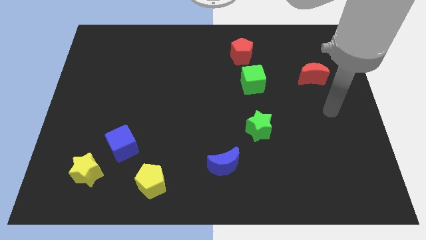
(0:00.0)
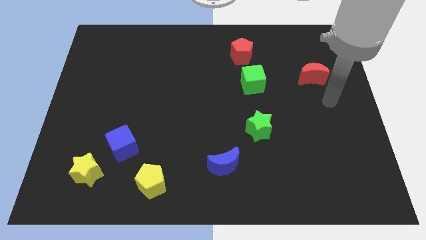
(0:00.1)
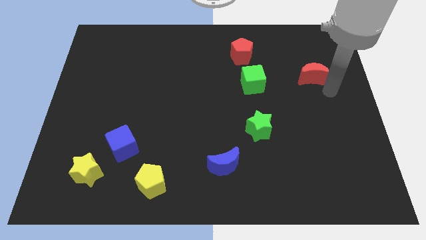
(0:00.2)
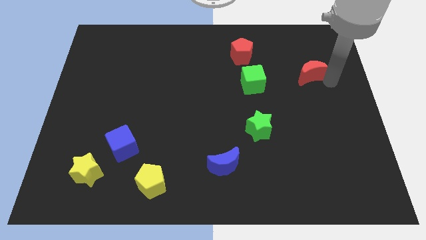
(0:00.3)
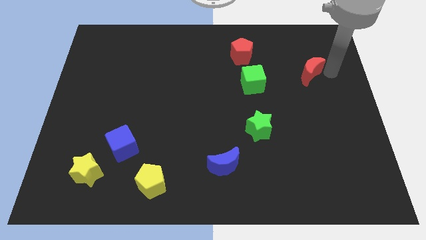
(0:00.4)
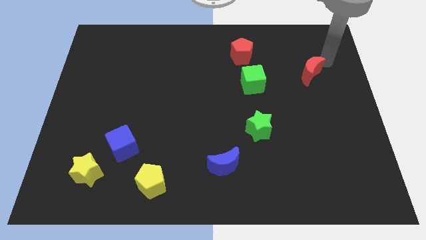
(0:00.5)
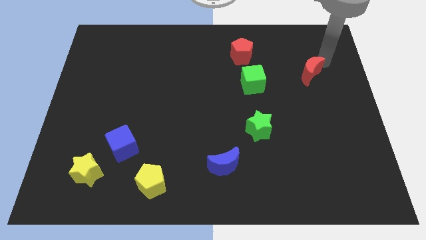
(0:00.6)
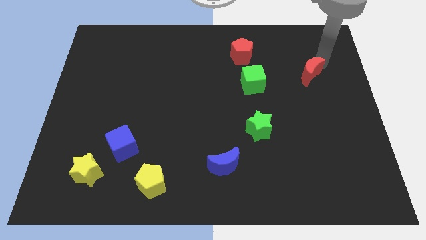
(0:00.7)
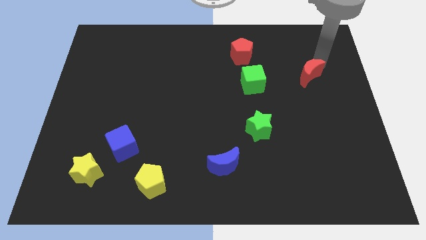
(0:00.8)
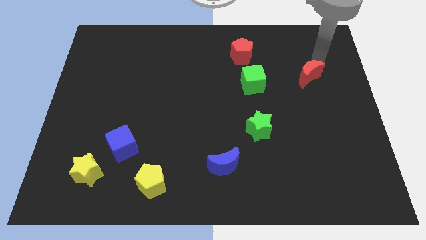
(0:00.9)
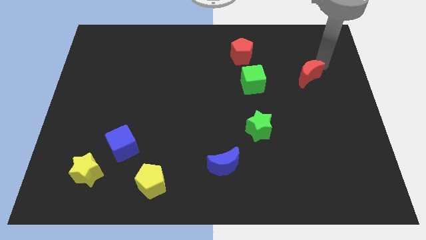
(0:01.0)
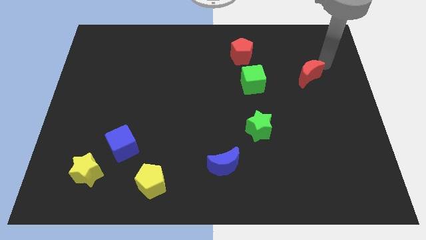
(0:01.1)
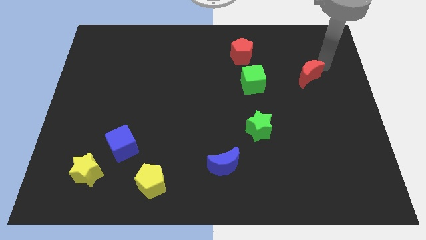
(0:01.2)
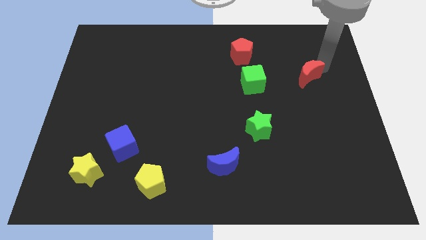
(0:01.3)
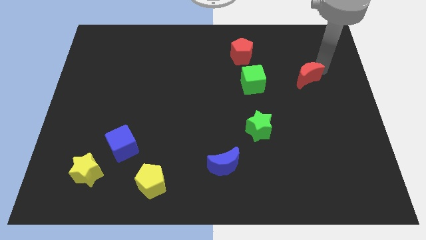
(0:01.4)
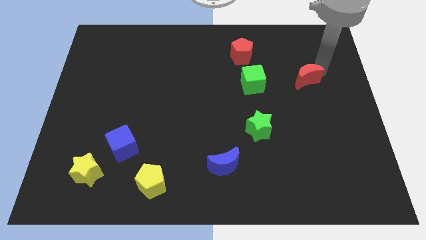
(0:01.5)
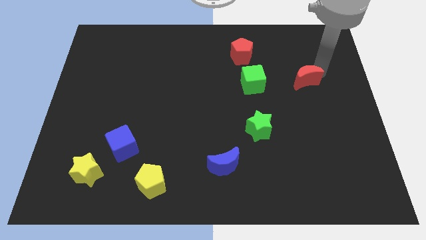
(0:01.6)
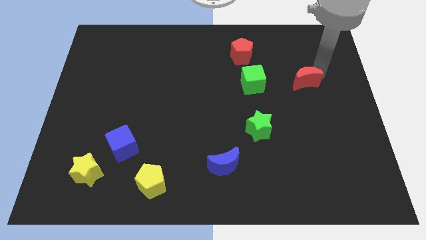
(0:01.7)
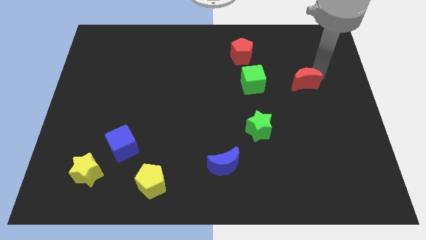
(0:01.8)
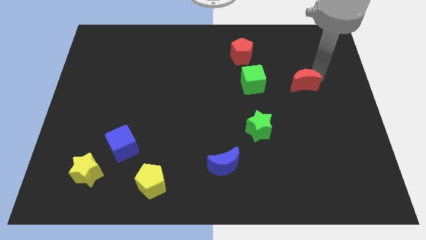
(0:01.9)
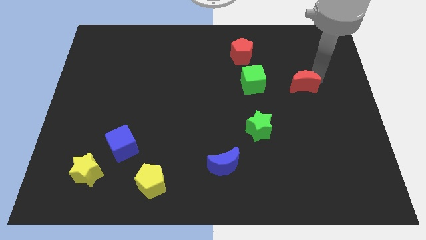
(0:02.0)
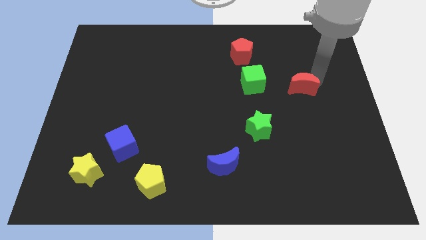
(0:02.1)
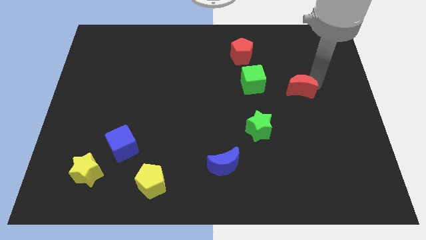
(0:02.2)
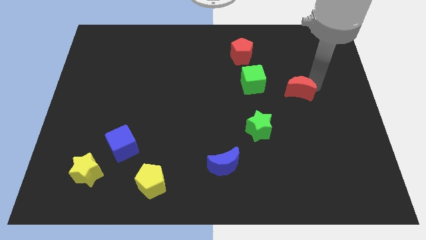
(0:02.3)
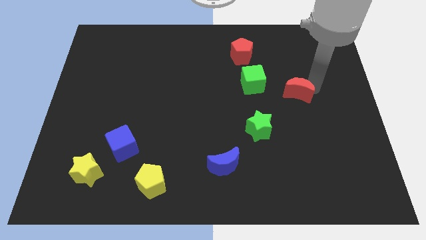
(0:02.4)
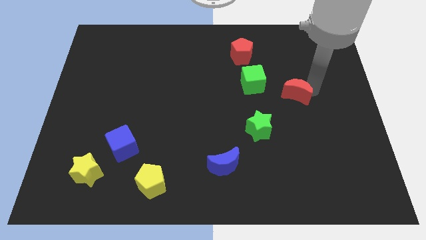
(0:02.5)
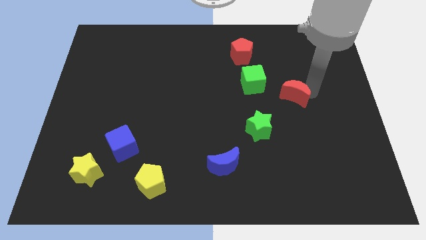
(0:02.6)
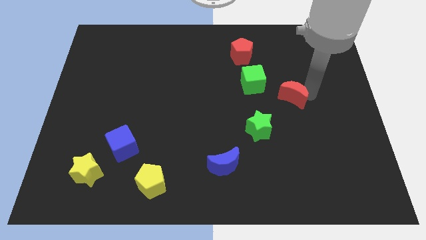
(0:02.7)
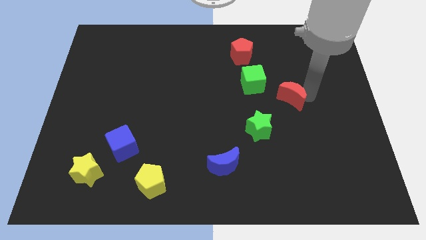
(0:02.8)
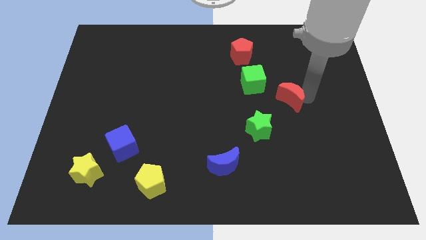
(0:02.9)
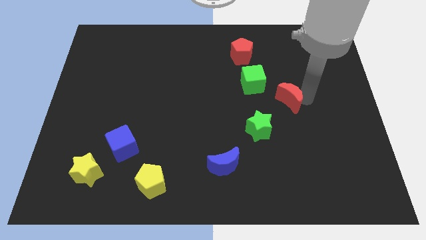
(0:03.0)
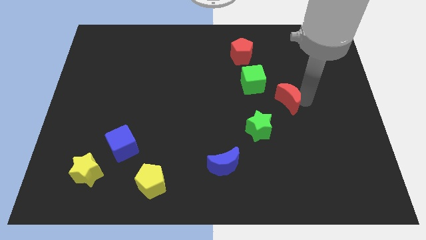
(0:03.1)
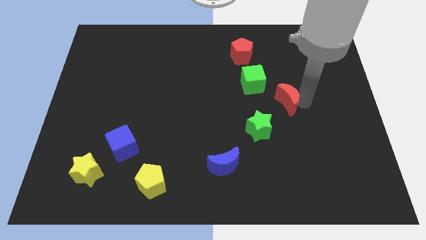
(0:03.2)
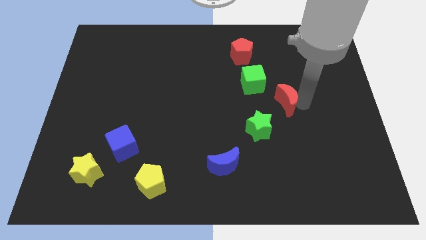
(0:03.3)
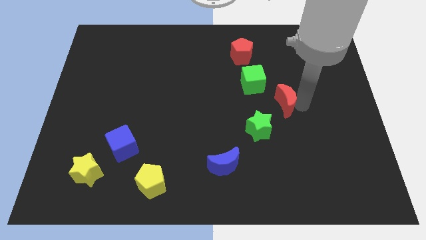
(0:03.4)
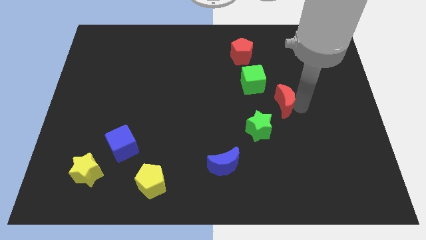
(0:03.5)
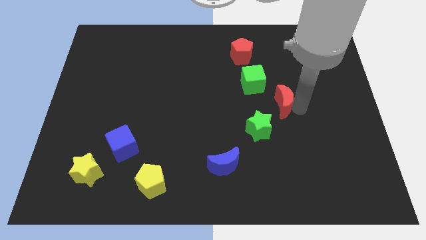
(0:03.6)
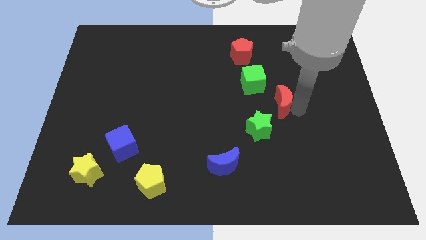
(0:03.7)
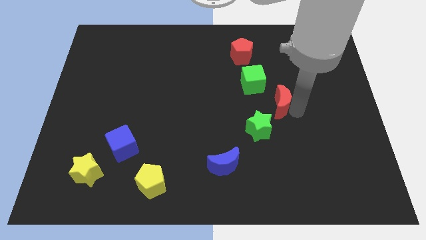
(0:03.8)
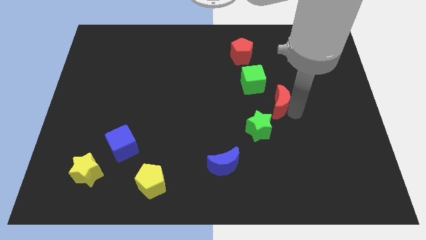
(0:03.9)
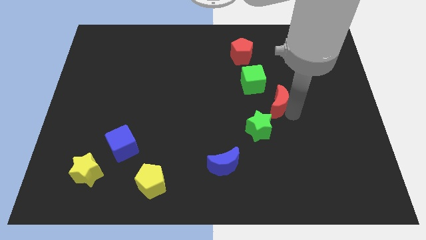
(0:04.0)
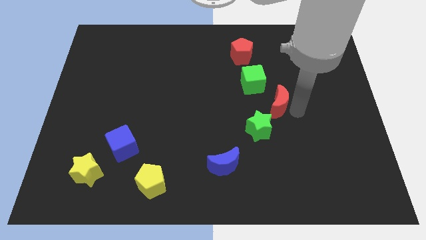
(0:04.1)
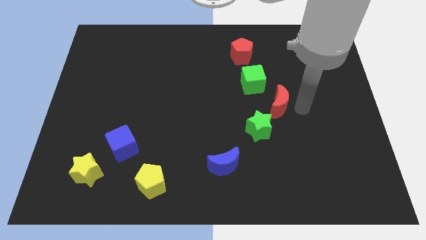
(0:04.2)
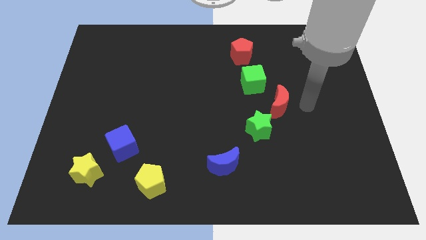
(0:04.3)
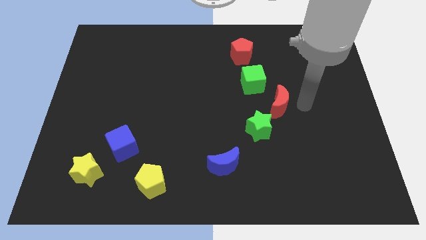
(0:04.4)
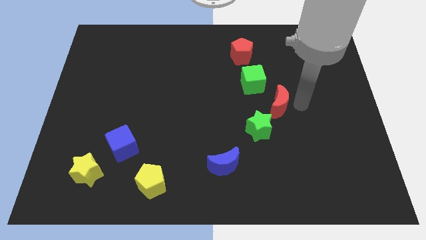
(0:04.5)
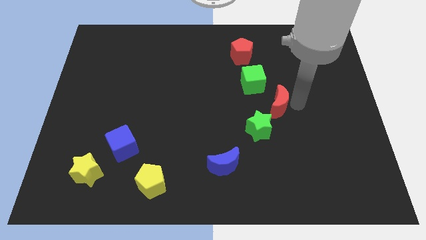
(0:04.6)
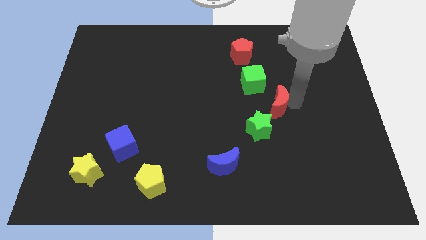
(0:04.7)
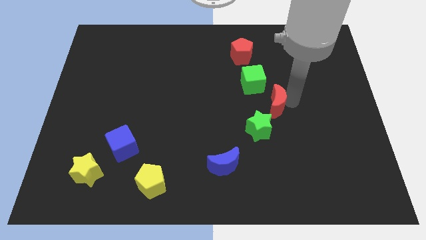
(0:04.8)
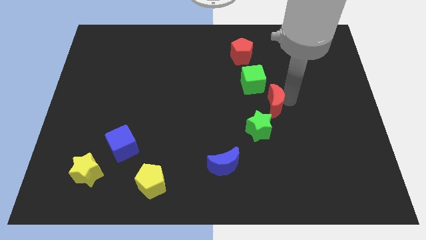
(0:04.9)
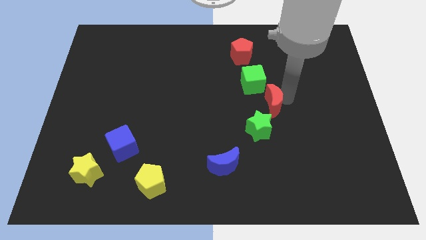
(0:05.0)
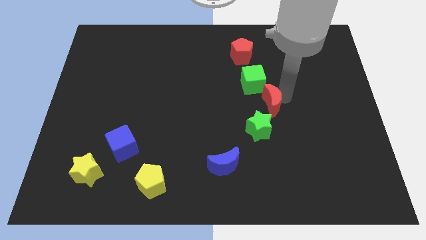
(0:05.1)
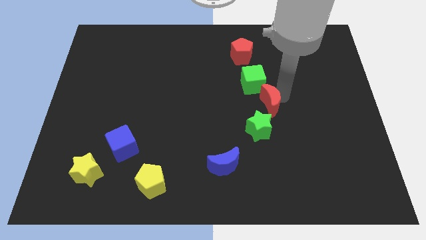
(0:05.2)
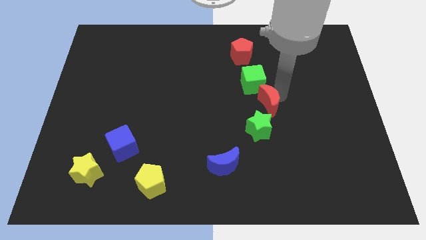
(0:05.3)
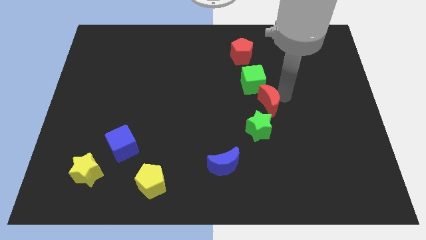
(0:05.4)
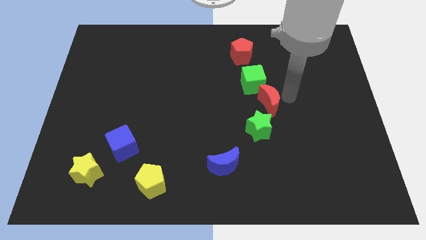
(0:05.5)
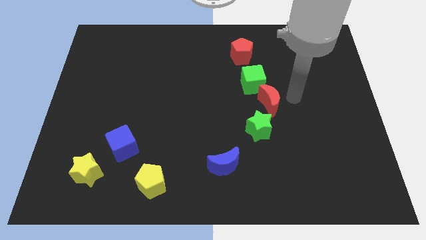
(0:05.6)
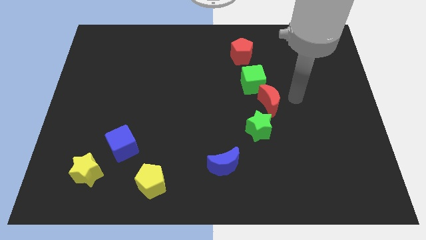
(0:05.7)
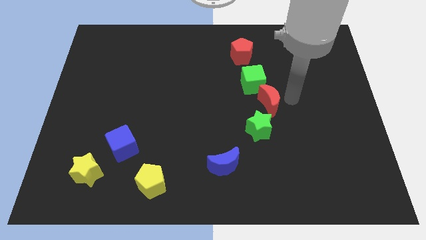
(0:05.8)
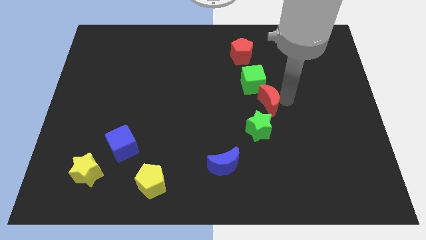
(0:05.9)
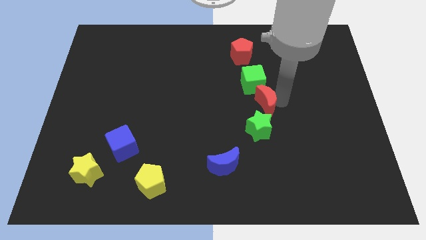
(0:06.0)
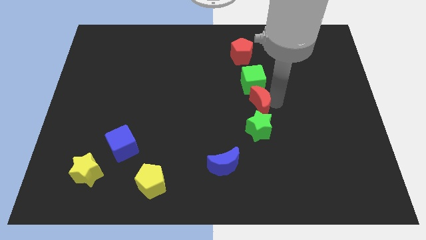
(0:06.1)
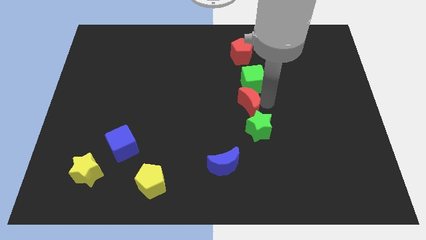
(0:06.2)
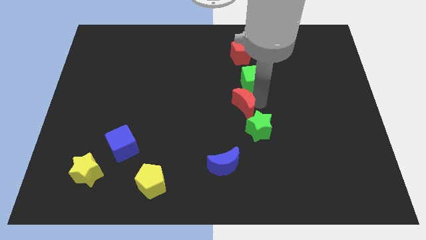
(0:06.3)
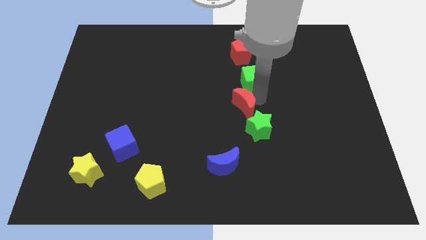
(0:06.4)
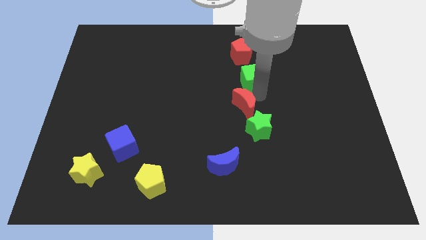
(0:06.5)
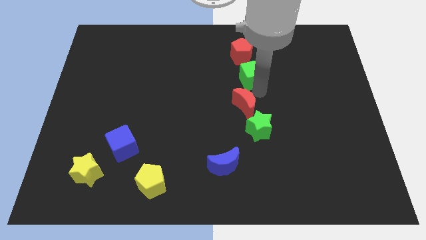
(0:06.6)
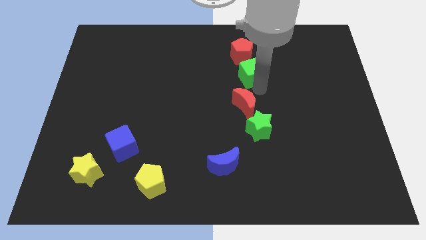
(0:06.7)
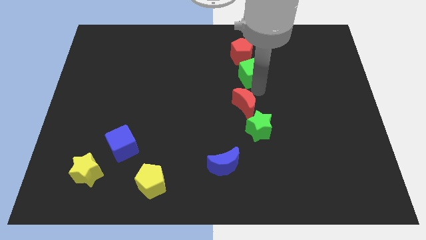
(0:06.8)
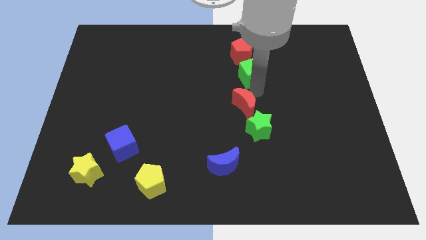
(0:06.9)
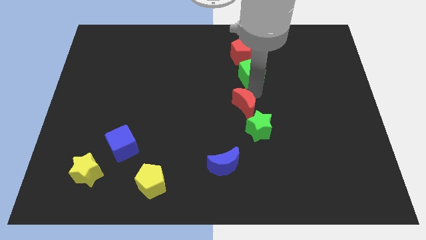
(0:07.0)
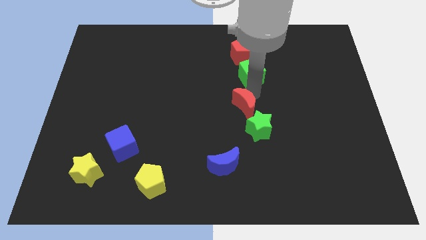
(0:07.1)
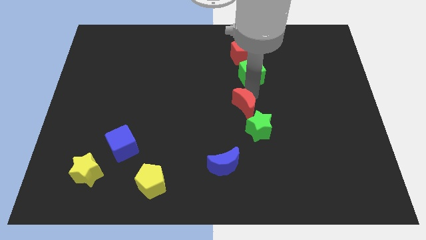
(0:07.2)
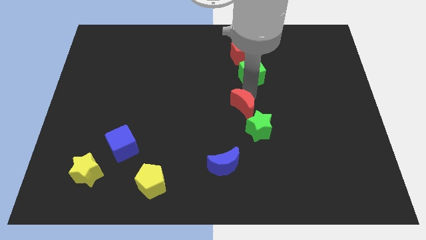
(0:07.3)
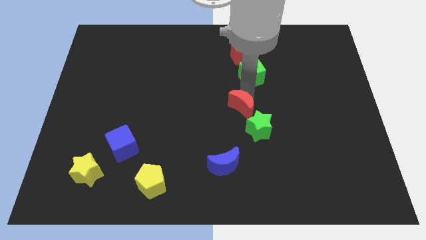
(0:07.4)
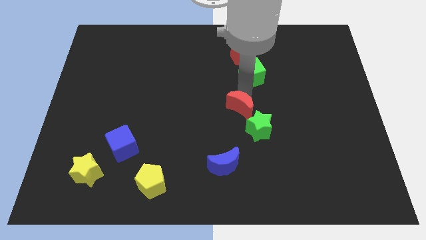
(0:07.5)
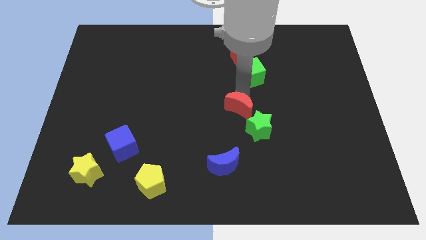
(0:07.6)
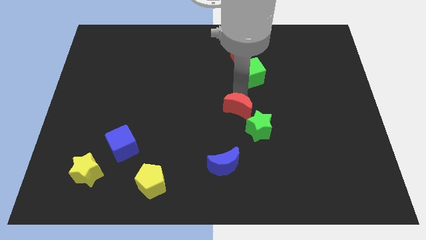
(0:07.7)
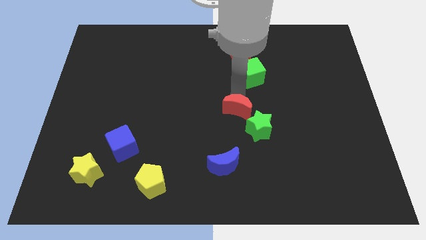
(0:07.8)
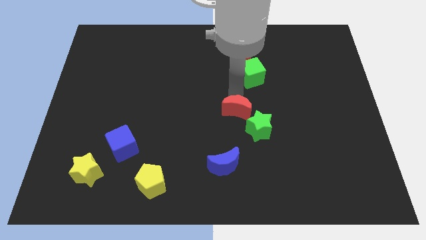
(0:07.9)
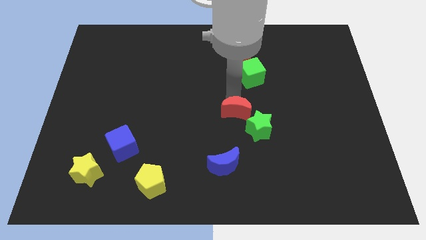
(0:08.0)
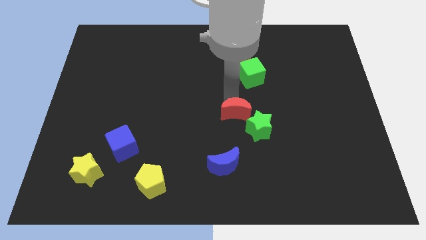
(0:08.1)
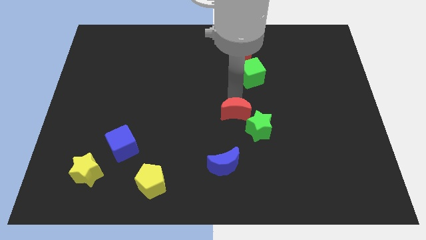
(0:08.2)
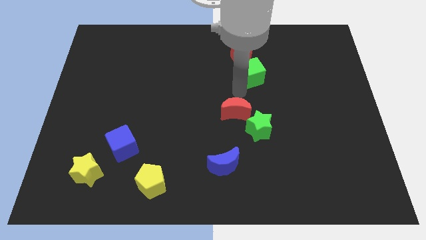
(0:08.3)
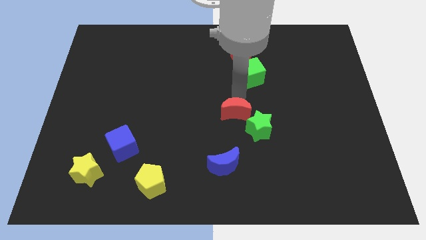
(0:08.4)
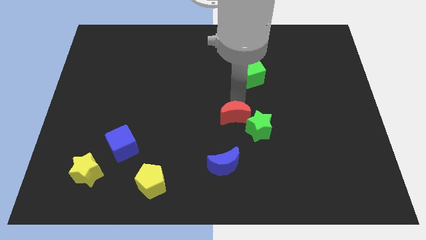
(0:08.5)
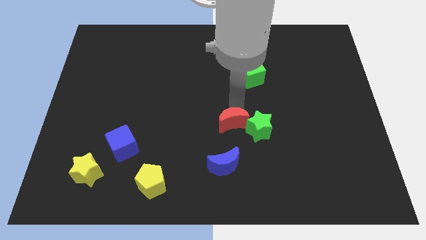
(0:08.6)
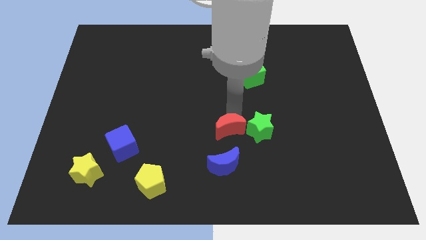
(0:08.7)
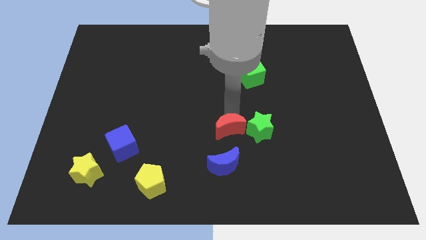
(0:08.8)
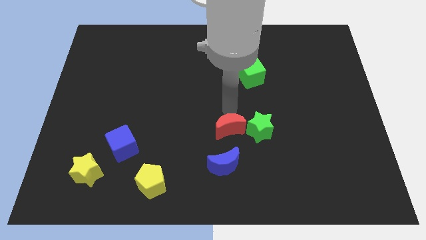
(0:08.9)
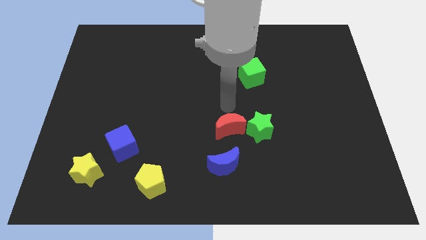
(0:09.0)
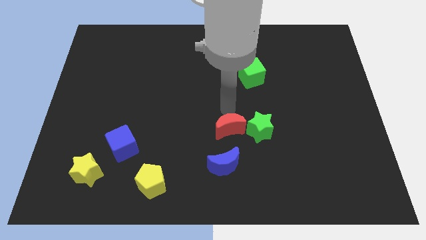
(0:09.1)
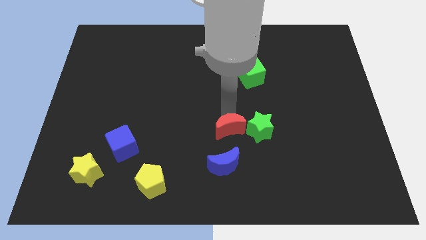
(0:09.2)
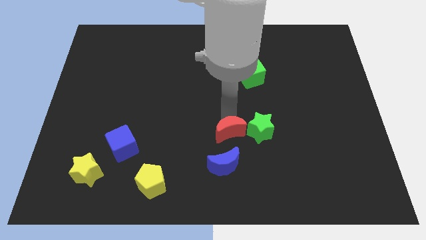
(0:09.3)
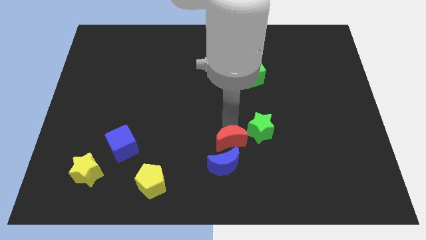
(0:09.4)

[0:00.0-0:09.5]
put the red moon to the blue moon
